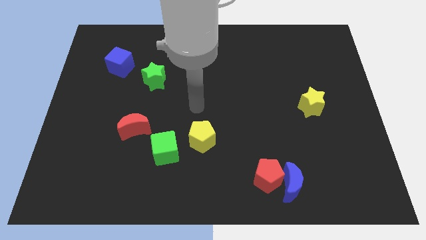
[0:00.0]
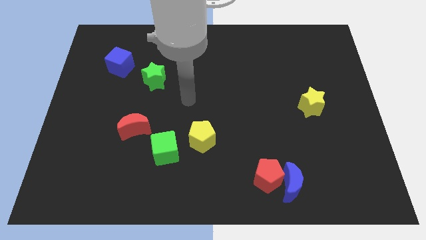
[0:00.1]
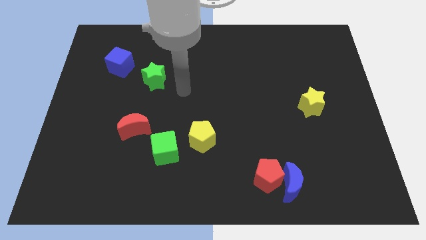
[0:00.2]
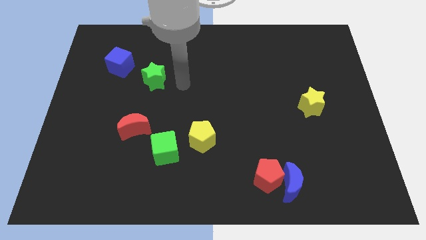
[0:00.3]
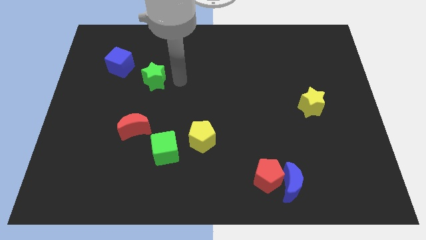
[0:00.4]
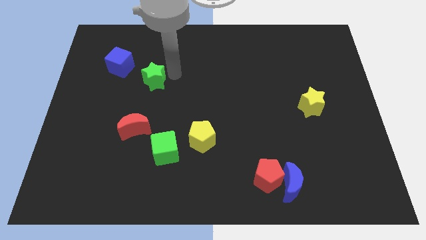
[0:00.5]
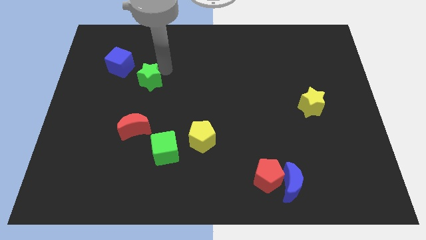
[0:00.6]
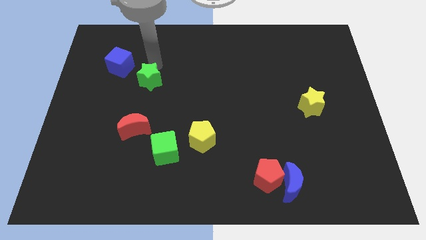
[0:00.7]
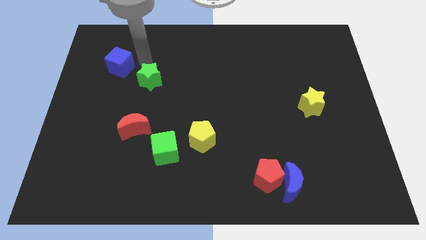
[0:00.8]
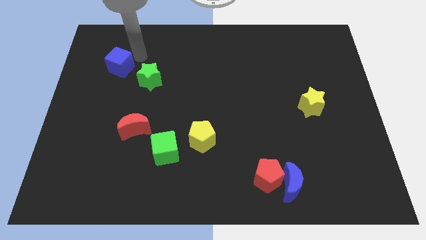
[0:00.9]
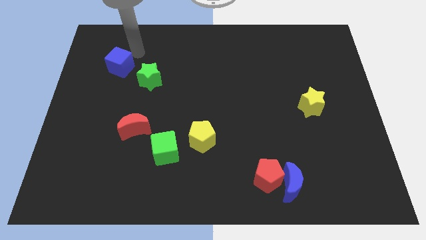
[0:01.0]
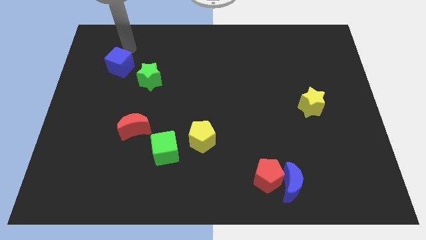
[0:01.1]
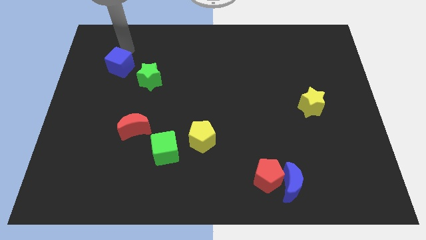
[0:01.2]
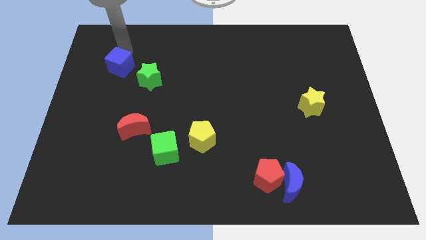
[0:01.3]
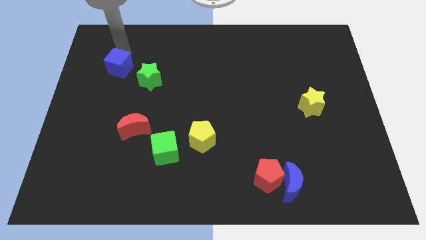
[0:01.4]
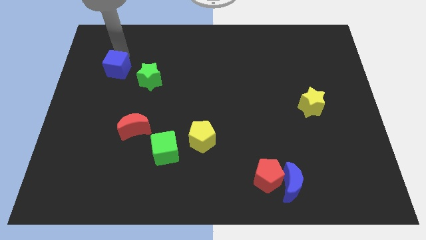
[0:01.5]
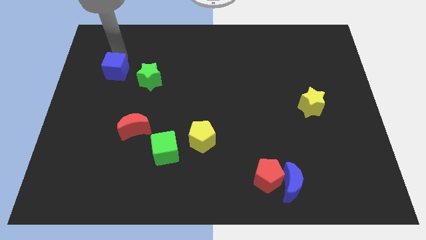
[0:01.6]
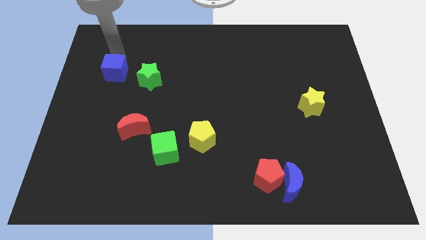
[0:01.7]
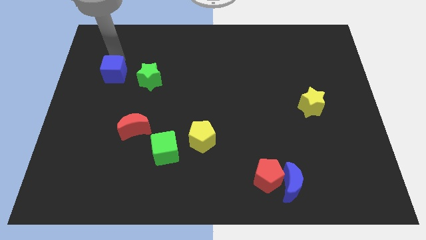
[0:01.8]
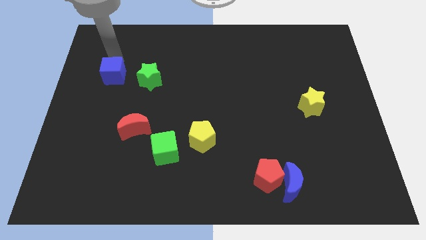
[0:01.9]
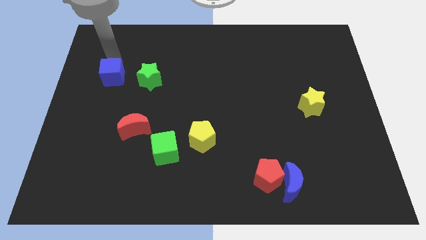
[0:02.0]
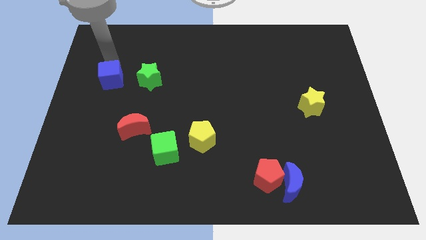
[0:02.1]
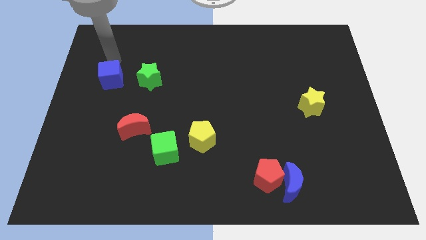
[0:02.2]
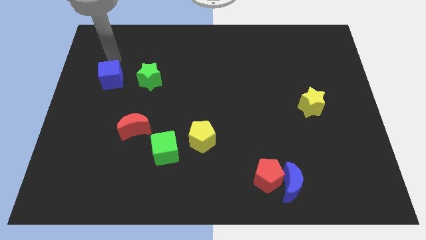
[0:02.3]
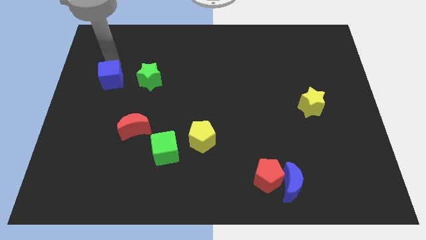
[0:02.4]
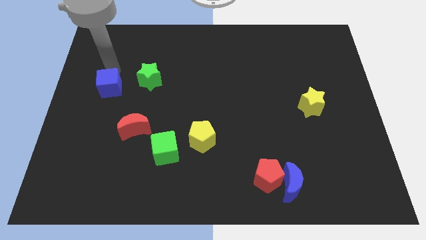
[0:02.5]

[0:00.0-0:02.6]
push the blue cube a little down

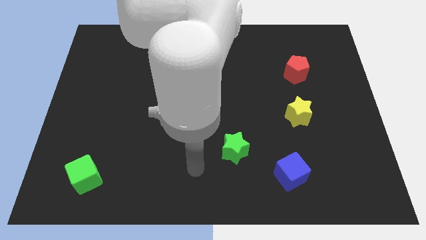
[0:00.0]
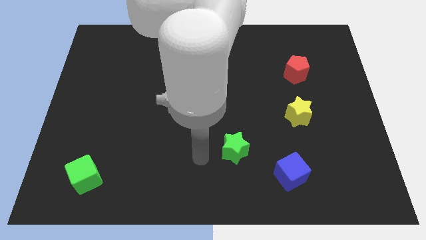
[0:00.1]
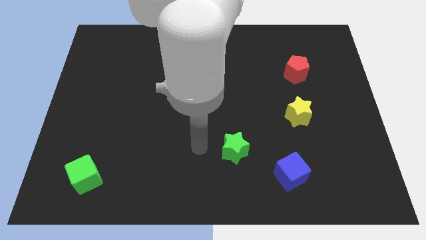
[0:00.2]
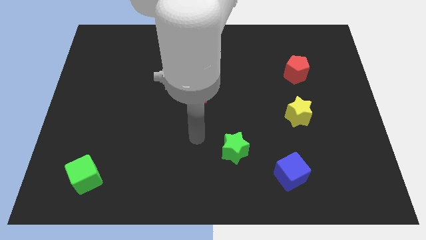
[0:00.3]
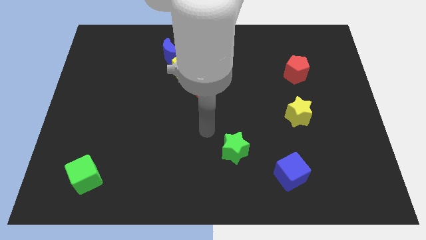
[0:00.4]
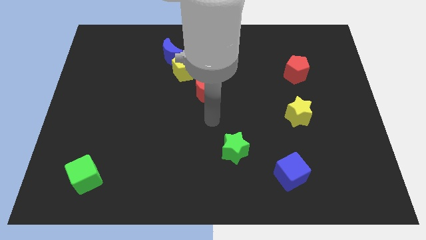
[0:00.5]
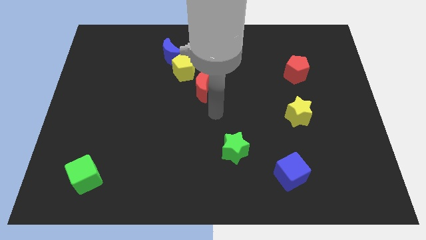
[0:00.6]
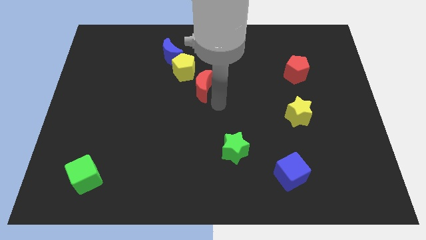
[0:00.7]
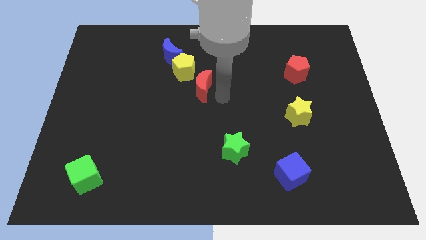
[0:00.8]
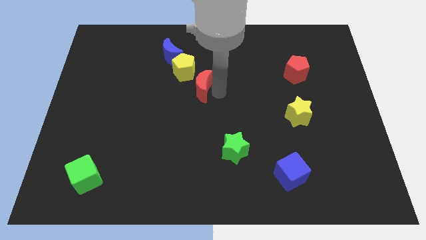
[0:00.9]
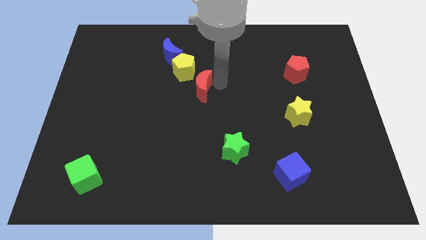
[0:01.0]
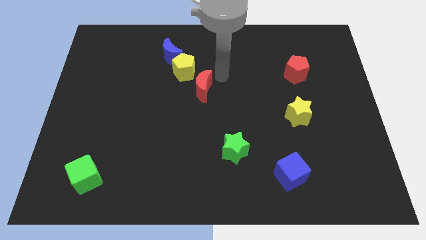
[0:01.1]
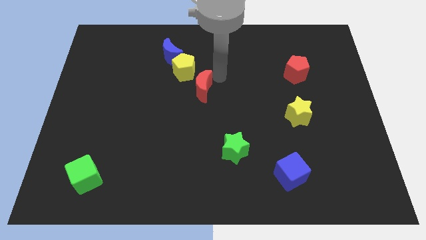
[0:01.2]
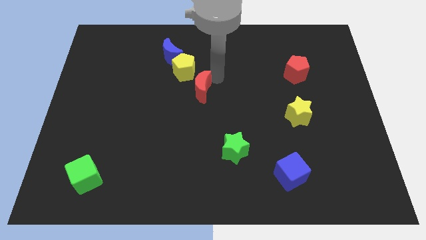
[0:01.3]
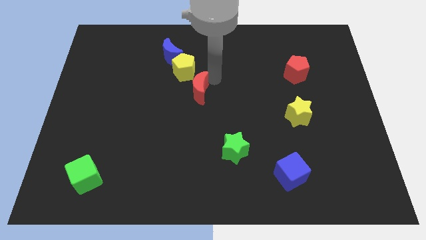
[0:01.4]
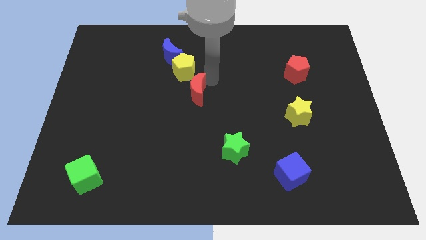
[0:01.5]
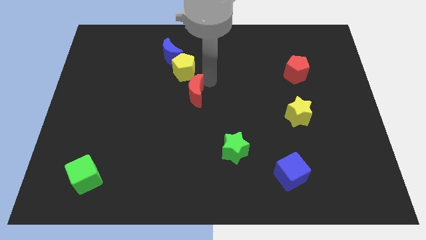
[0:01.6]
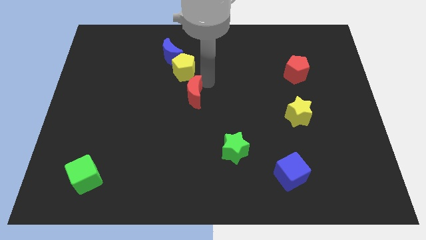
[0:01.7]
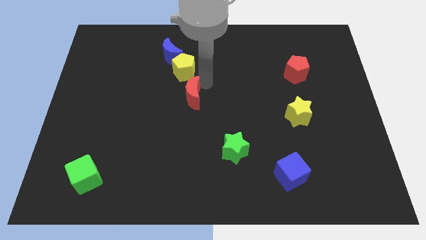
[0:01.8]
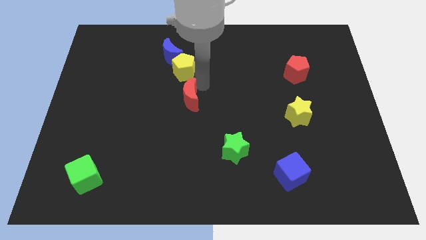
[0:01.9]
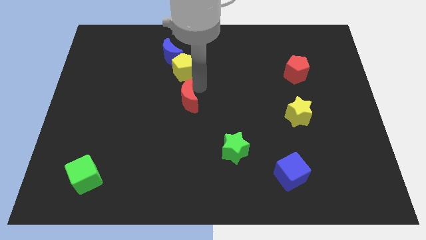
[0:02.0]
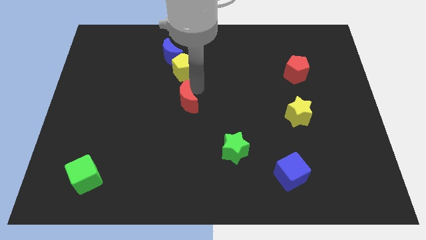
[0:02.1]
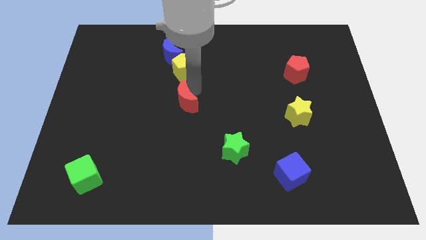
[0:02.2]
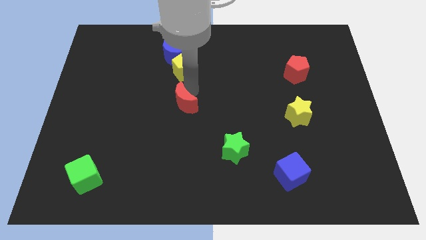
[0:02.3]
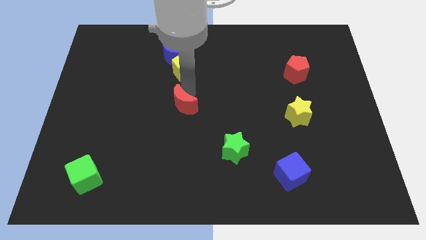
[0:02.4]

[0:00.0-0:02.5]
slightly move the red moon down and to the left

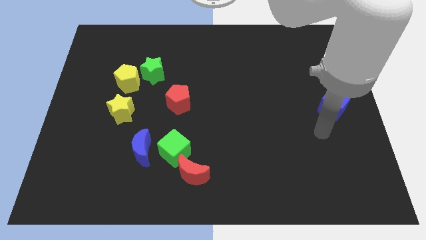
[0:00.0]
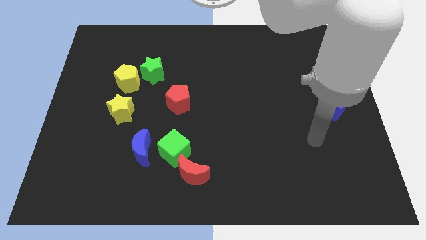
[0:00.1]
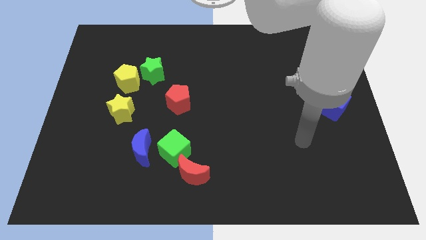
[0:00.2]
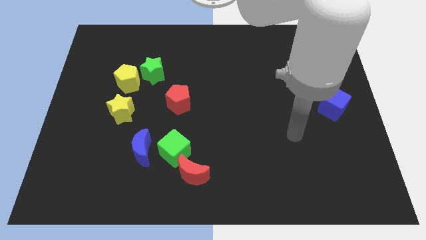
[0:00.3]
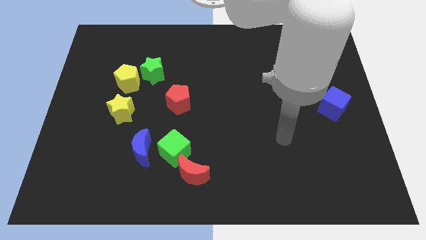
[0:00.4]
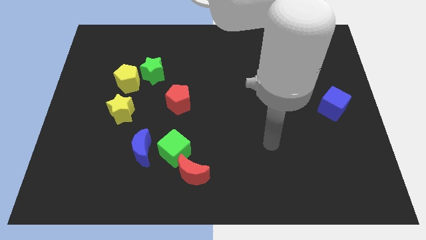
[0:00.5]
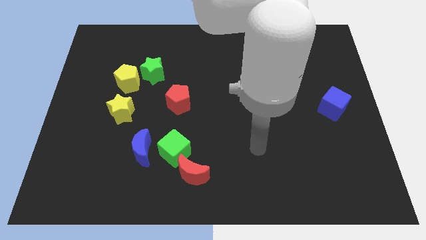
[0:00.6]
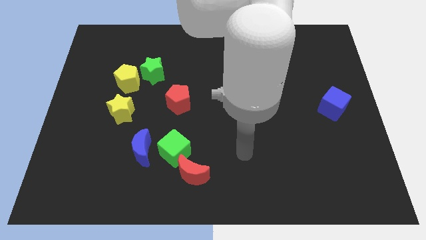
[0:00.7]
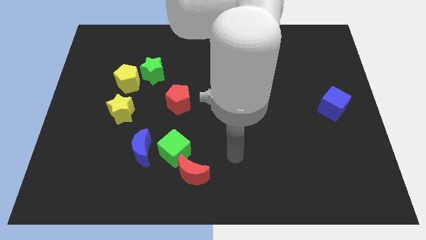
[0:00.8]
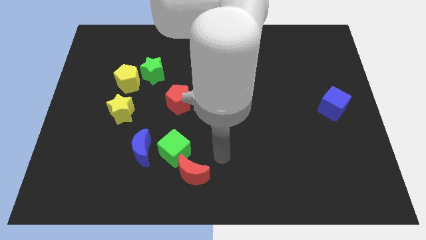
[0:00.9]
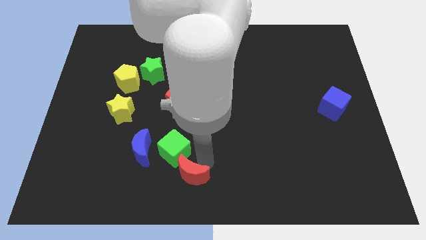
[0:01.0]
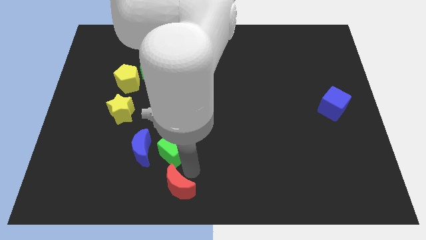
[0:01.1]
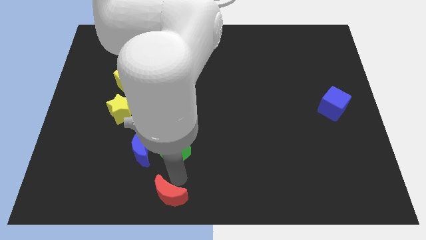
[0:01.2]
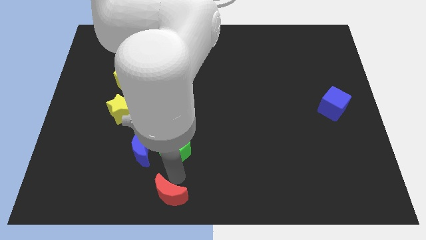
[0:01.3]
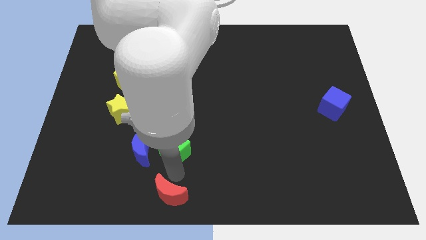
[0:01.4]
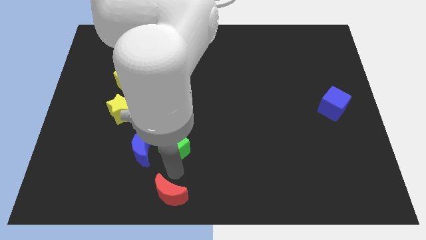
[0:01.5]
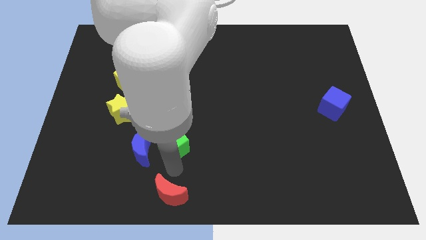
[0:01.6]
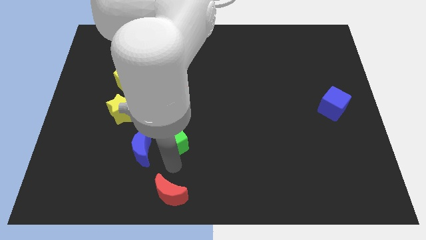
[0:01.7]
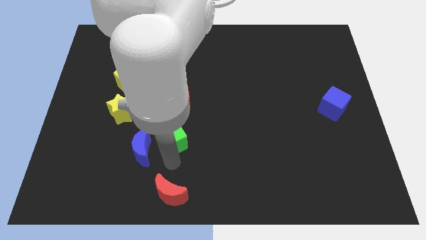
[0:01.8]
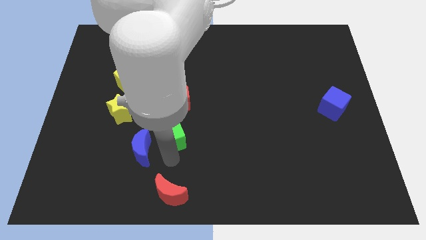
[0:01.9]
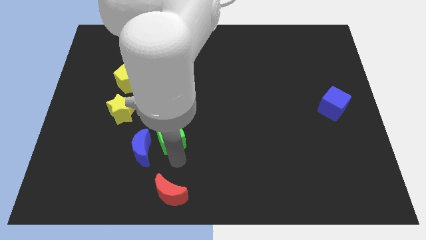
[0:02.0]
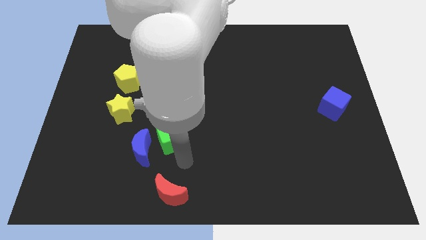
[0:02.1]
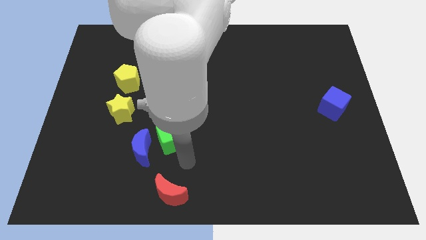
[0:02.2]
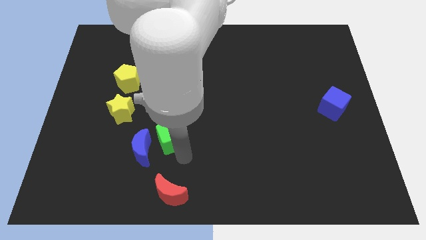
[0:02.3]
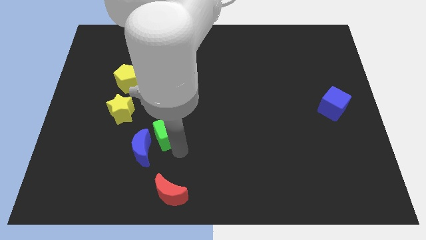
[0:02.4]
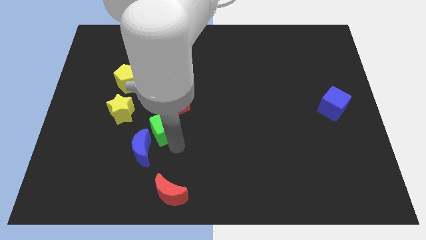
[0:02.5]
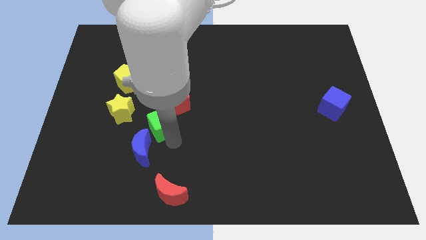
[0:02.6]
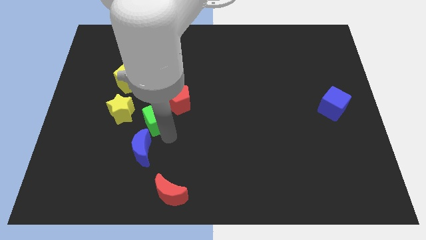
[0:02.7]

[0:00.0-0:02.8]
push the green cube up somewhat
